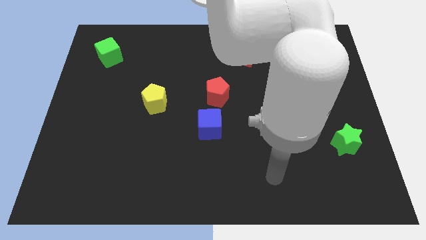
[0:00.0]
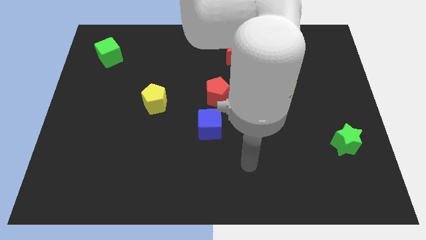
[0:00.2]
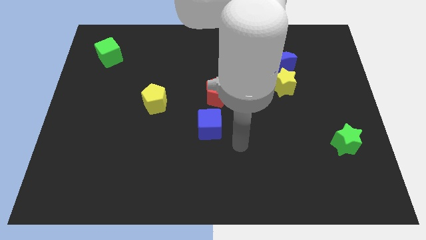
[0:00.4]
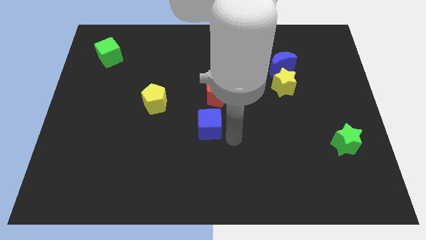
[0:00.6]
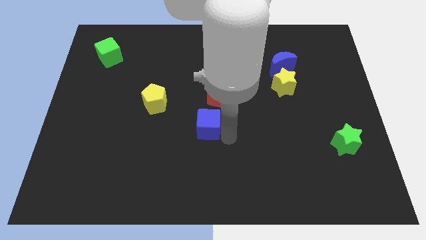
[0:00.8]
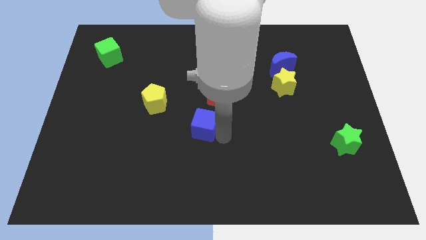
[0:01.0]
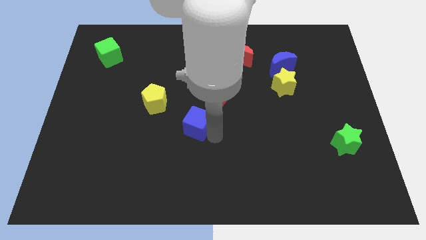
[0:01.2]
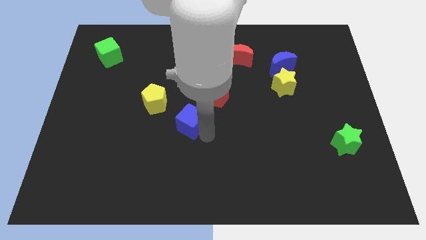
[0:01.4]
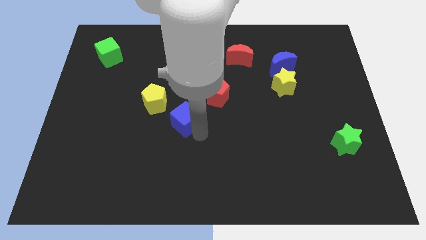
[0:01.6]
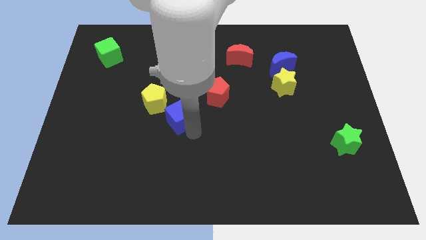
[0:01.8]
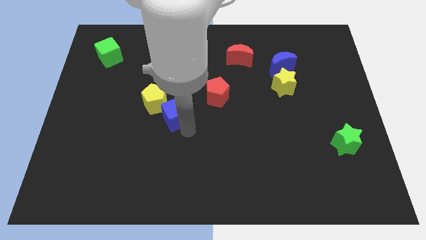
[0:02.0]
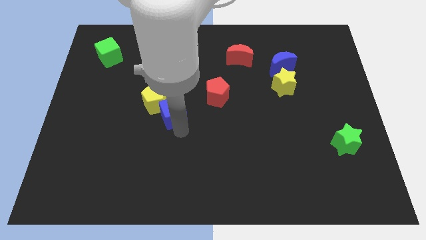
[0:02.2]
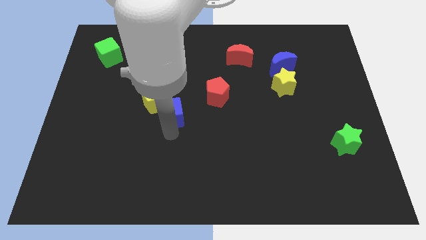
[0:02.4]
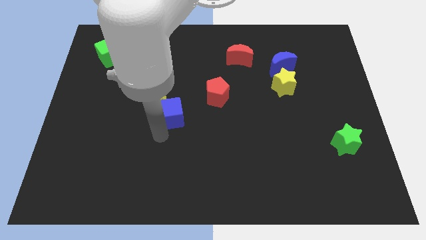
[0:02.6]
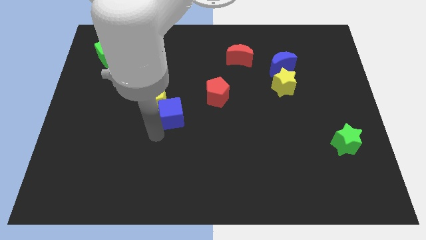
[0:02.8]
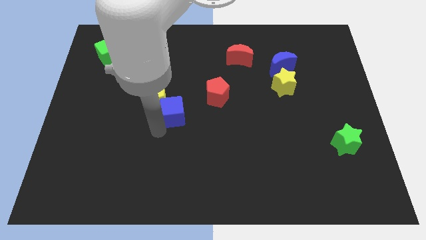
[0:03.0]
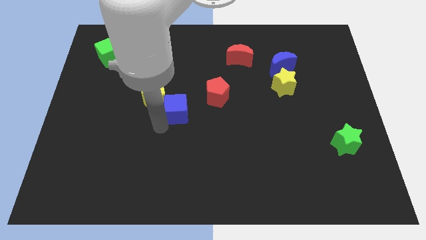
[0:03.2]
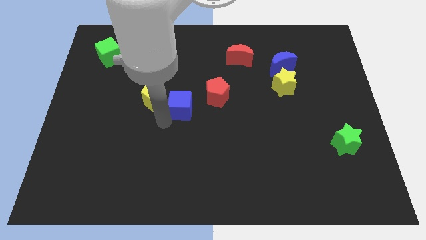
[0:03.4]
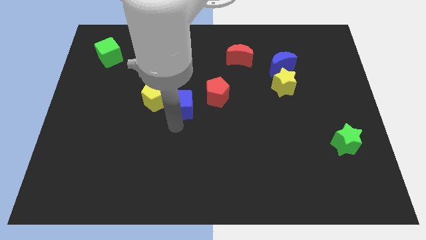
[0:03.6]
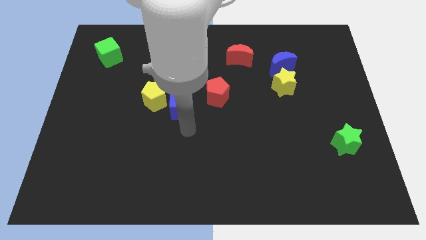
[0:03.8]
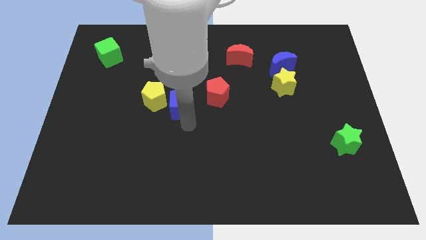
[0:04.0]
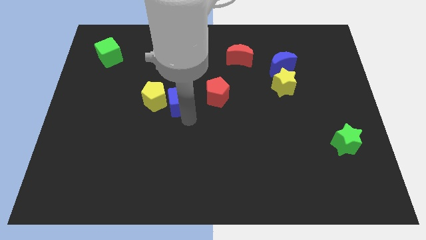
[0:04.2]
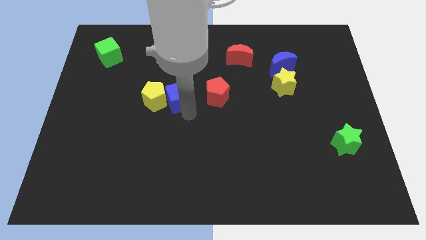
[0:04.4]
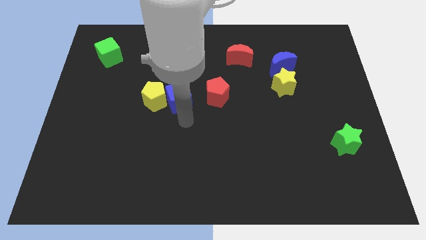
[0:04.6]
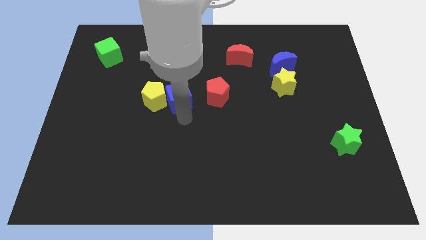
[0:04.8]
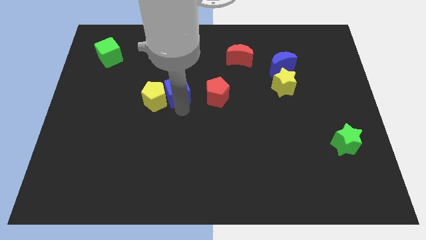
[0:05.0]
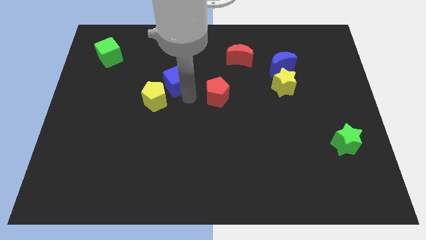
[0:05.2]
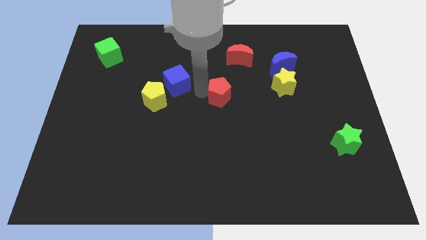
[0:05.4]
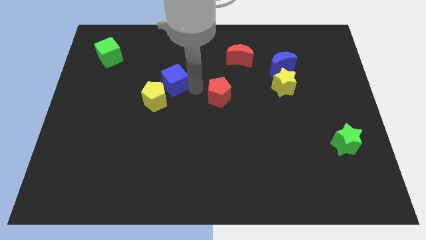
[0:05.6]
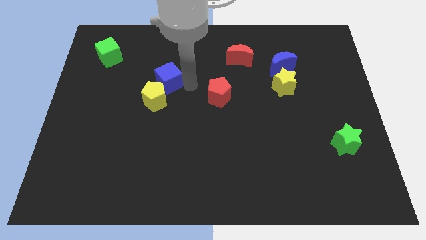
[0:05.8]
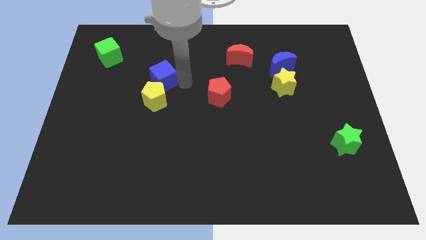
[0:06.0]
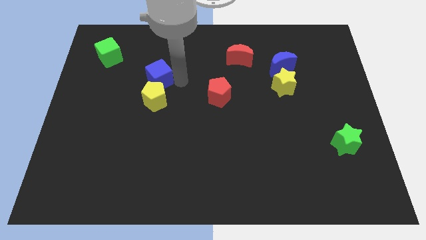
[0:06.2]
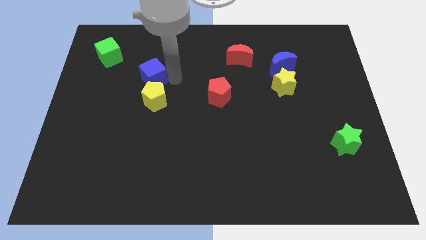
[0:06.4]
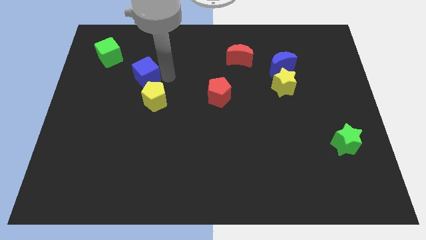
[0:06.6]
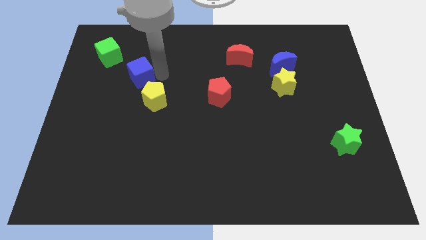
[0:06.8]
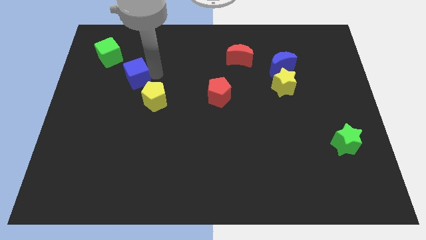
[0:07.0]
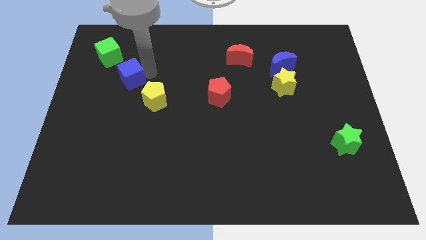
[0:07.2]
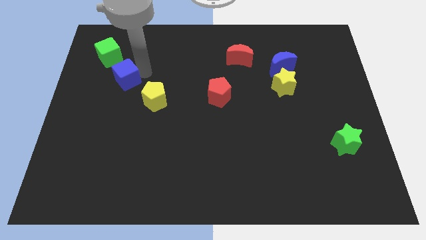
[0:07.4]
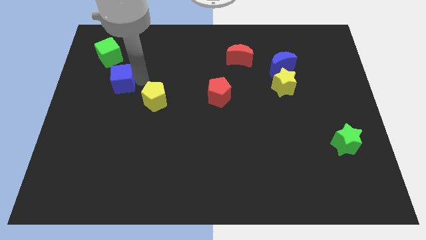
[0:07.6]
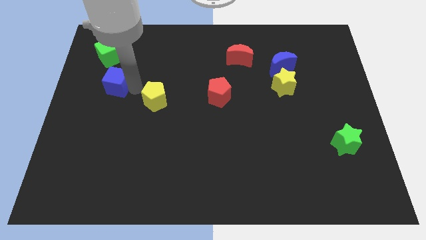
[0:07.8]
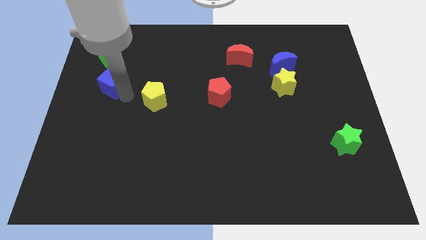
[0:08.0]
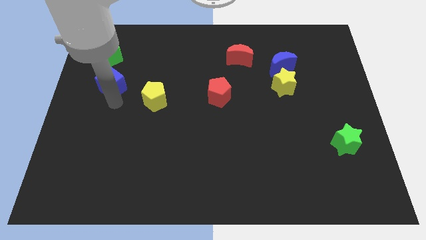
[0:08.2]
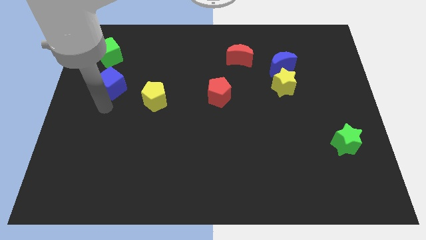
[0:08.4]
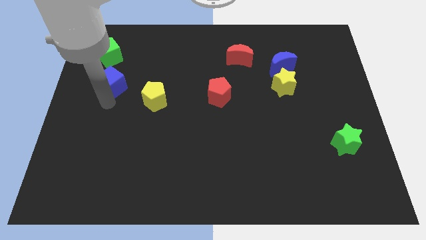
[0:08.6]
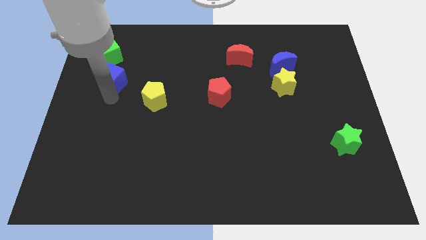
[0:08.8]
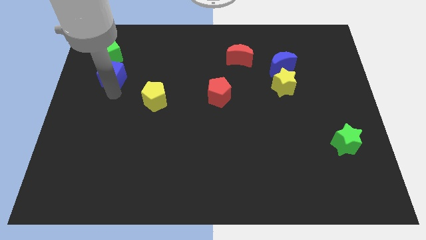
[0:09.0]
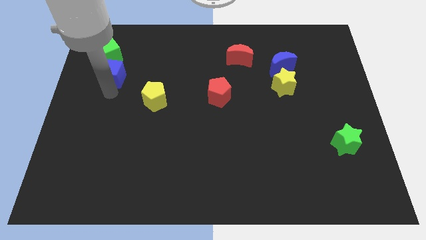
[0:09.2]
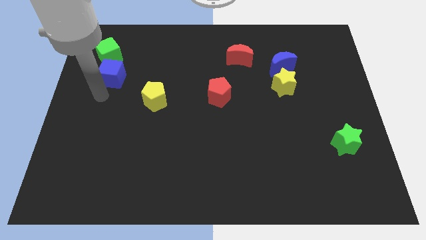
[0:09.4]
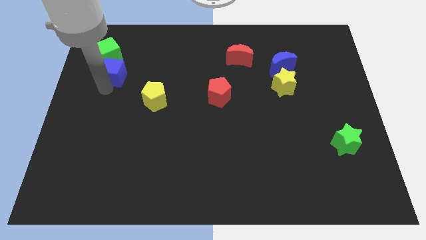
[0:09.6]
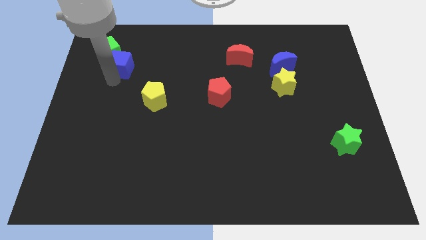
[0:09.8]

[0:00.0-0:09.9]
slide the blue cube close to the green cube

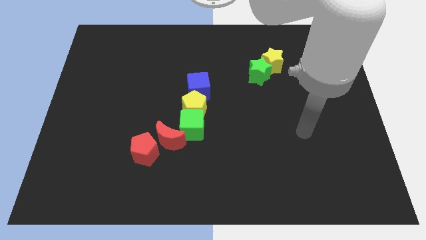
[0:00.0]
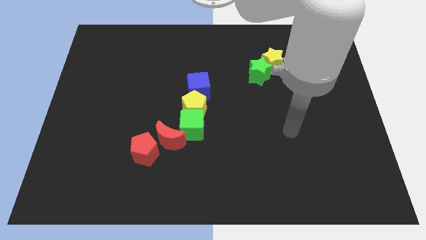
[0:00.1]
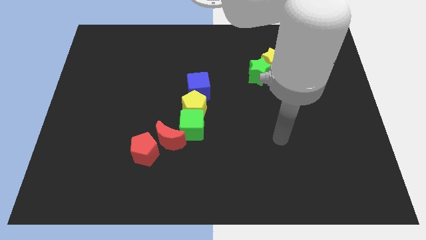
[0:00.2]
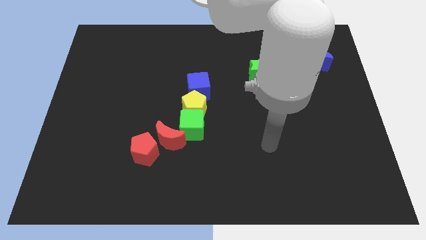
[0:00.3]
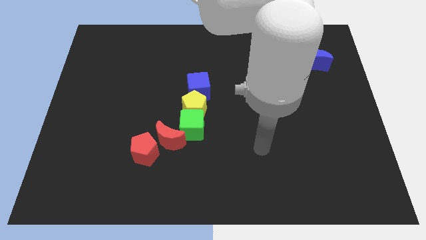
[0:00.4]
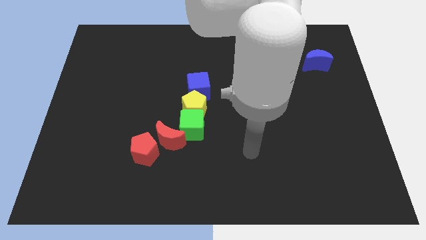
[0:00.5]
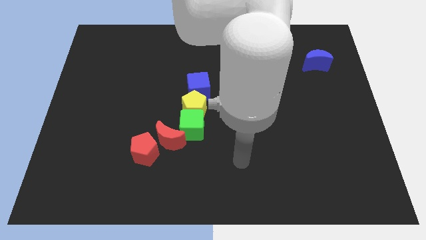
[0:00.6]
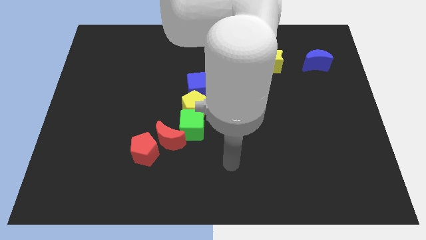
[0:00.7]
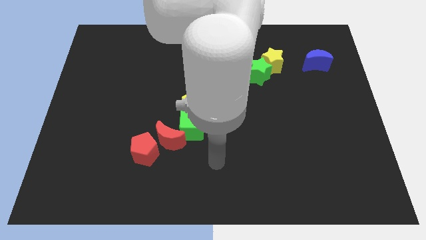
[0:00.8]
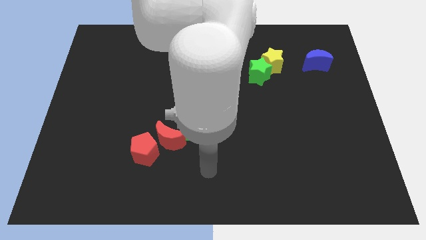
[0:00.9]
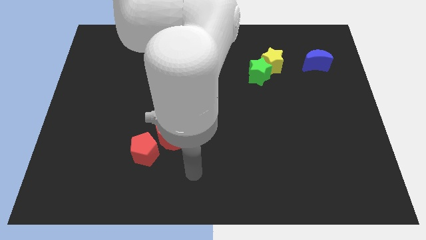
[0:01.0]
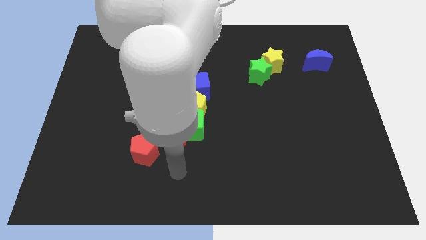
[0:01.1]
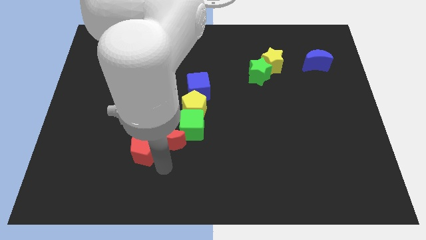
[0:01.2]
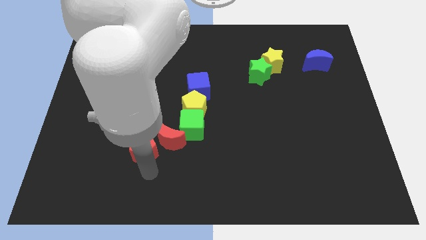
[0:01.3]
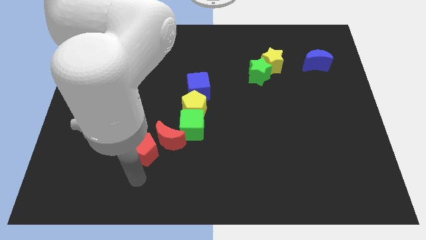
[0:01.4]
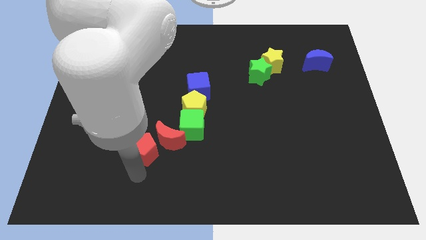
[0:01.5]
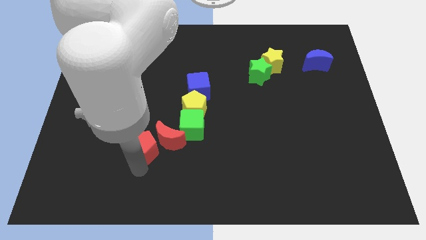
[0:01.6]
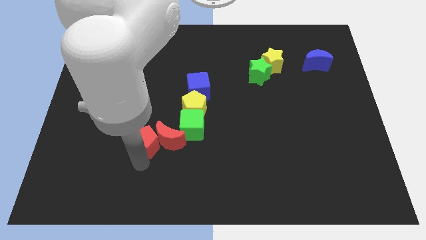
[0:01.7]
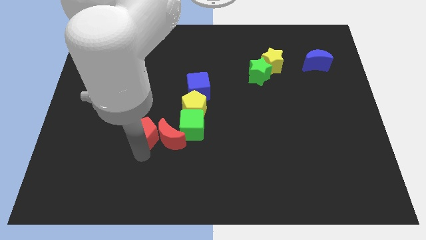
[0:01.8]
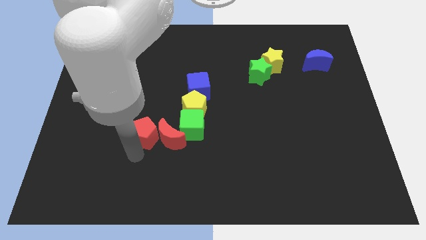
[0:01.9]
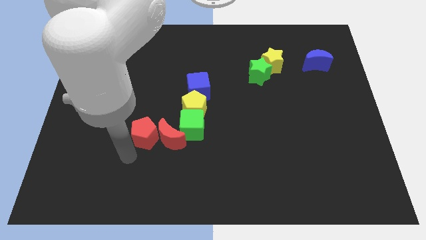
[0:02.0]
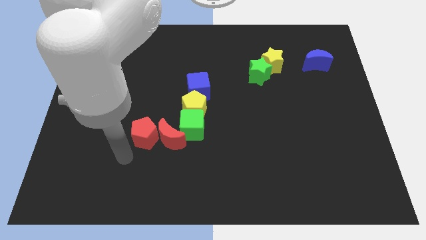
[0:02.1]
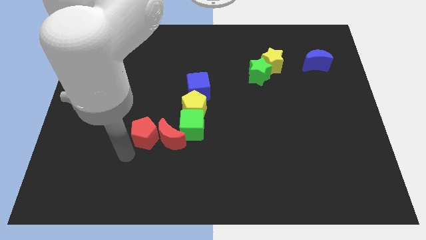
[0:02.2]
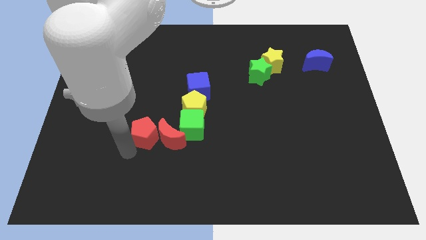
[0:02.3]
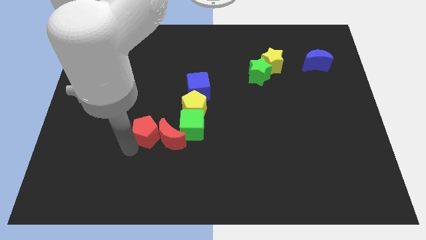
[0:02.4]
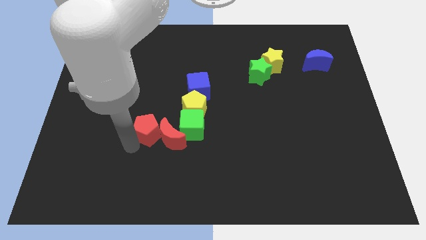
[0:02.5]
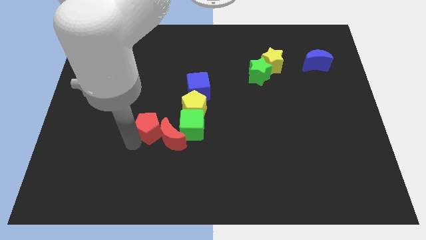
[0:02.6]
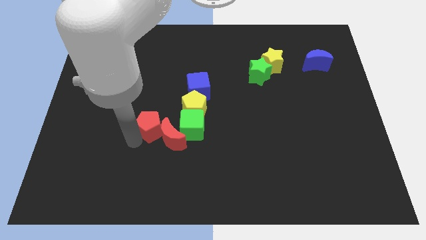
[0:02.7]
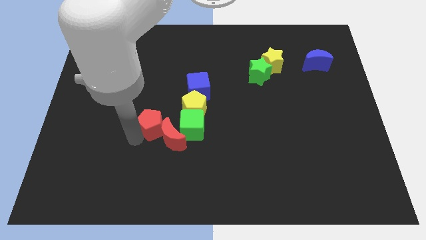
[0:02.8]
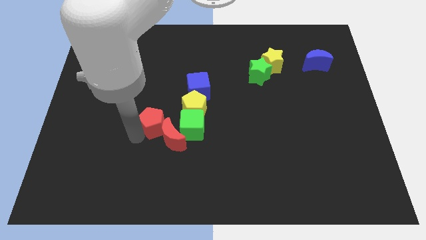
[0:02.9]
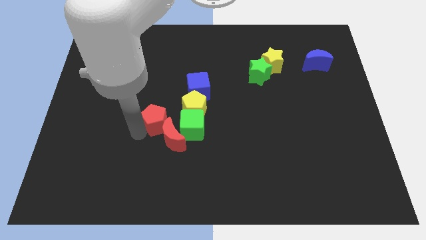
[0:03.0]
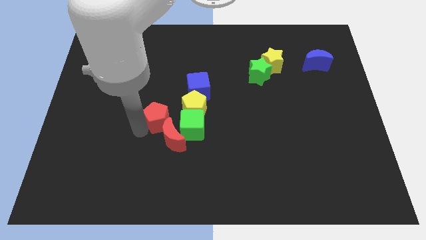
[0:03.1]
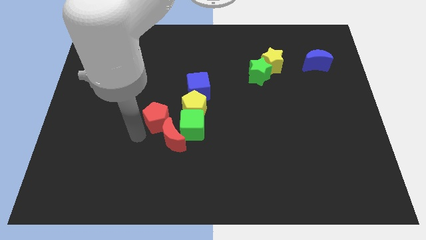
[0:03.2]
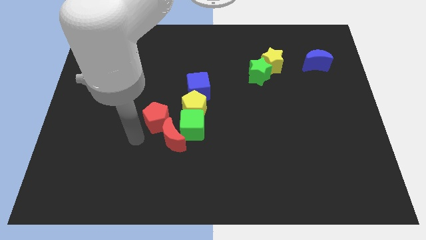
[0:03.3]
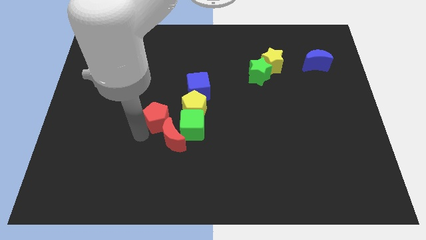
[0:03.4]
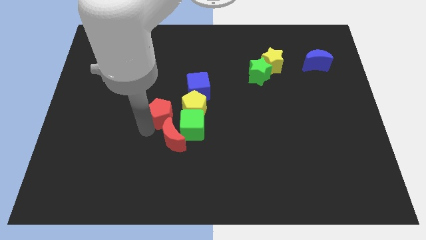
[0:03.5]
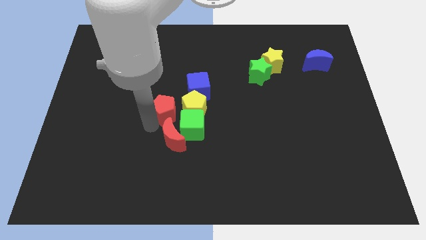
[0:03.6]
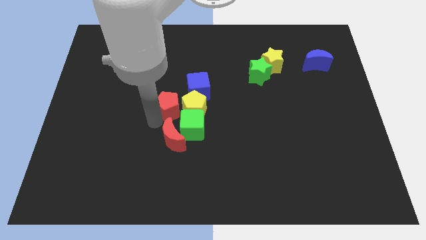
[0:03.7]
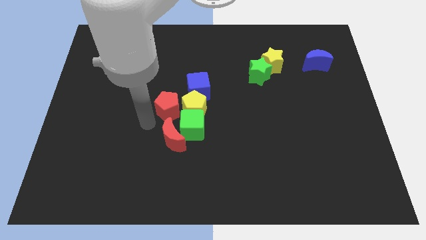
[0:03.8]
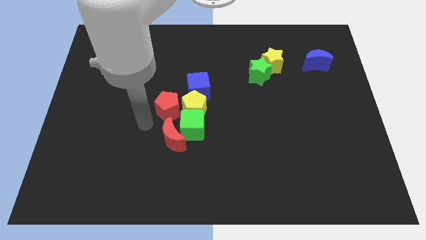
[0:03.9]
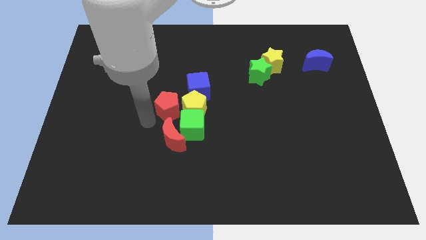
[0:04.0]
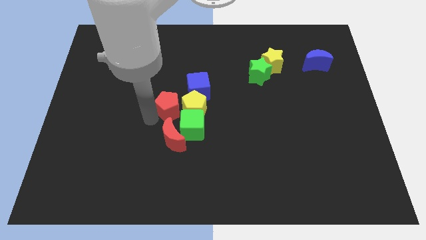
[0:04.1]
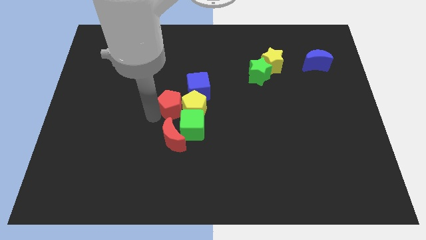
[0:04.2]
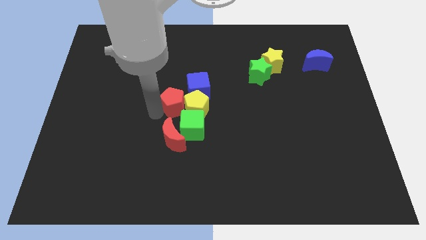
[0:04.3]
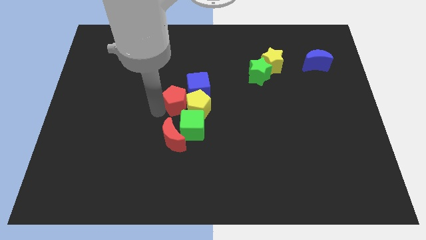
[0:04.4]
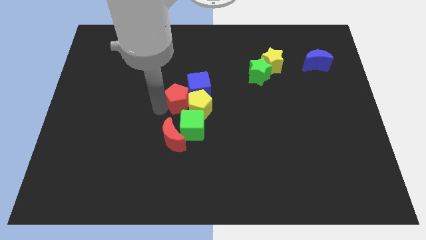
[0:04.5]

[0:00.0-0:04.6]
move the red pentagon close to the blue cube
